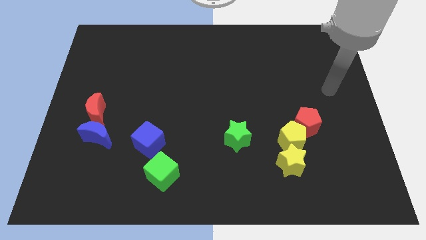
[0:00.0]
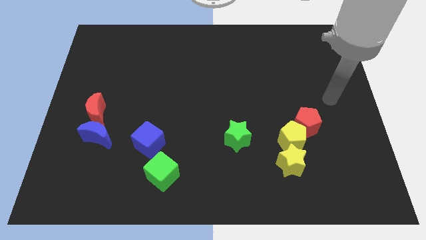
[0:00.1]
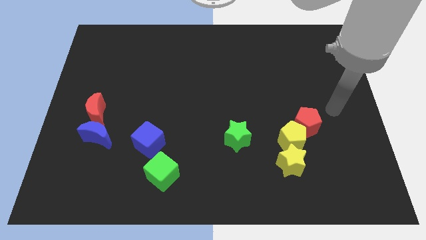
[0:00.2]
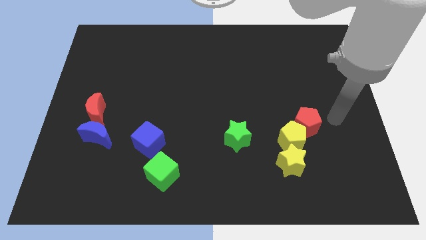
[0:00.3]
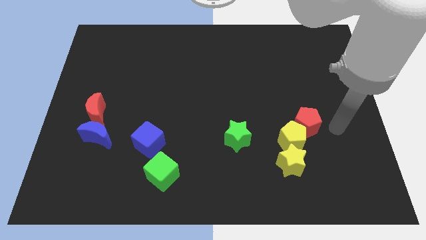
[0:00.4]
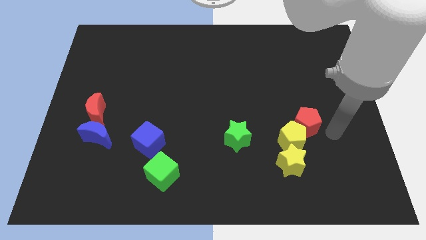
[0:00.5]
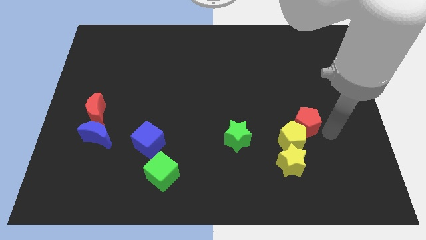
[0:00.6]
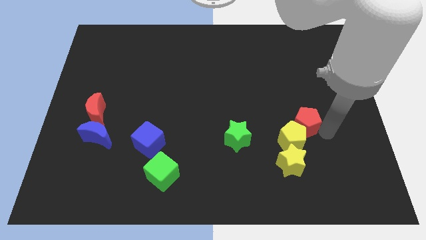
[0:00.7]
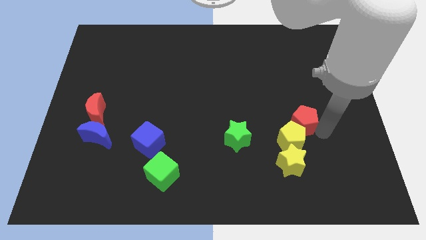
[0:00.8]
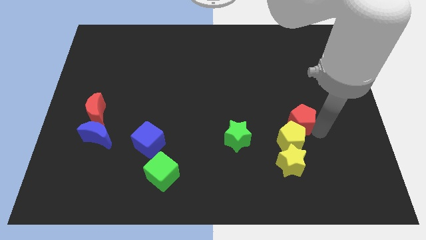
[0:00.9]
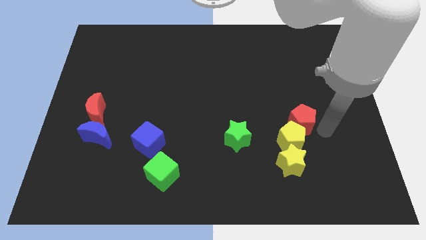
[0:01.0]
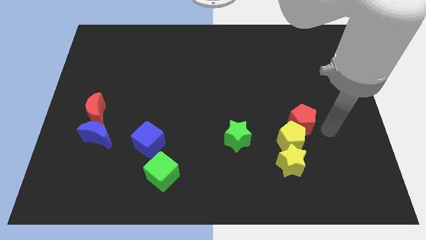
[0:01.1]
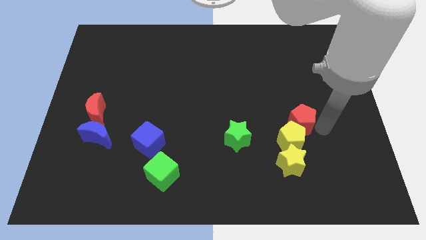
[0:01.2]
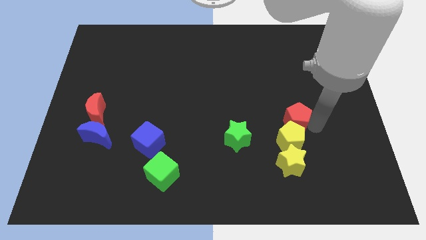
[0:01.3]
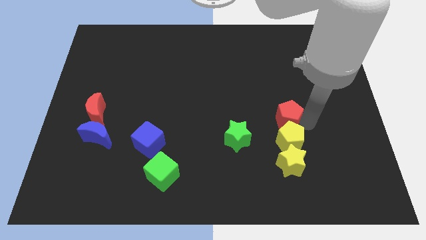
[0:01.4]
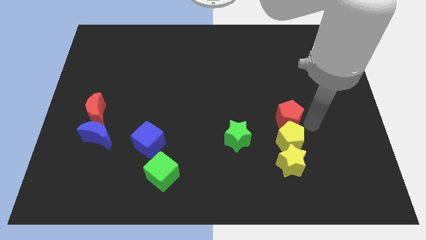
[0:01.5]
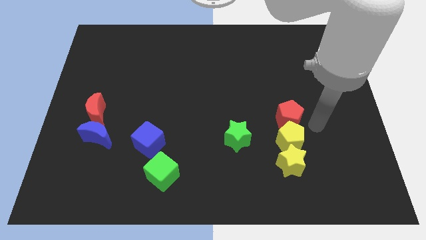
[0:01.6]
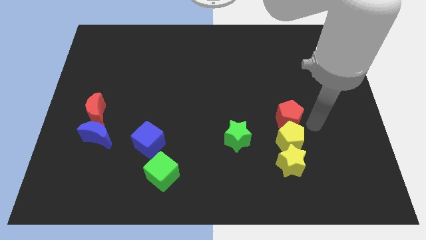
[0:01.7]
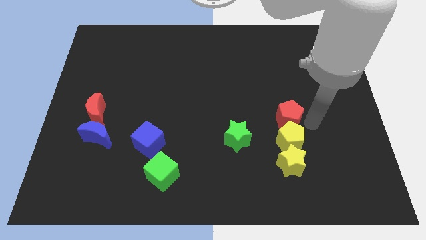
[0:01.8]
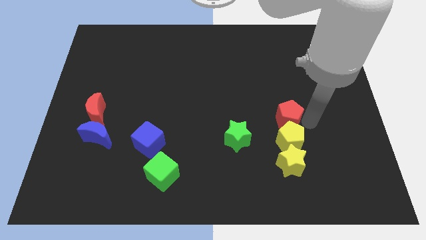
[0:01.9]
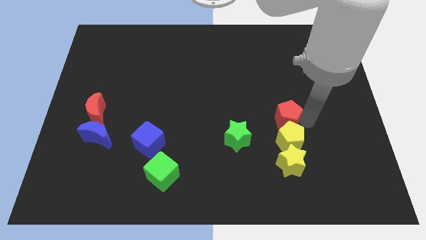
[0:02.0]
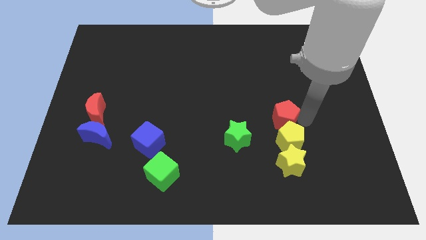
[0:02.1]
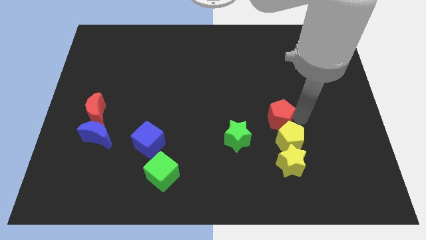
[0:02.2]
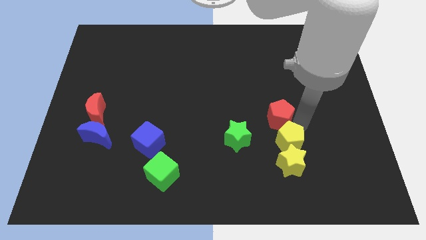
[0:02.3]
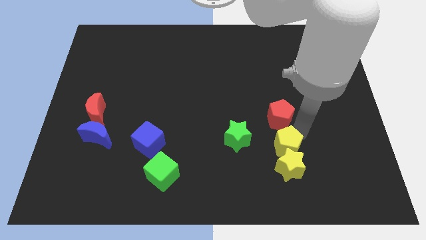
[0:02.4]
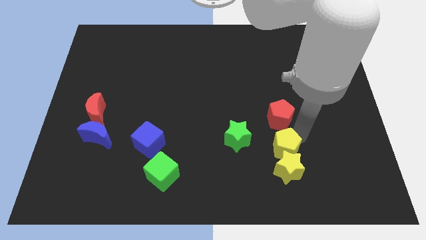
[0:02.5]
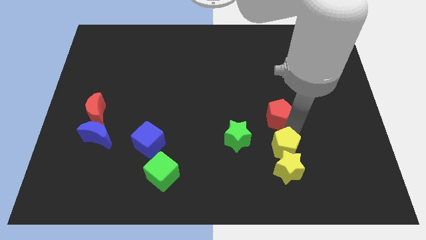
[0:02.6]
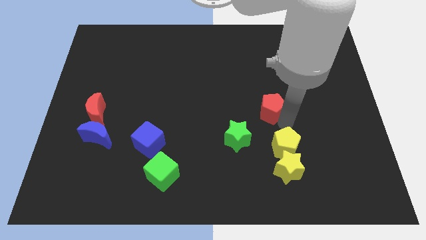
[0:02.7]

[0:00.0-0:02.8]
move the red pentagon somewhat up and left

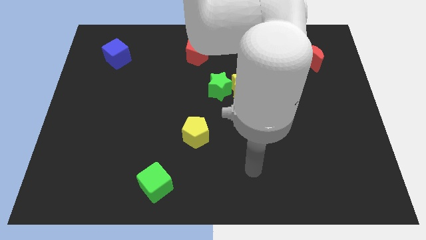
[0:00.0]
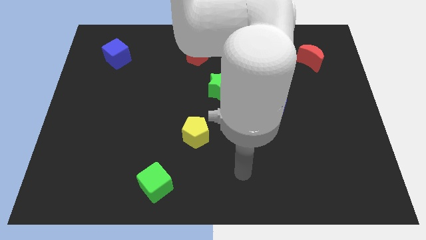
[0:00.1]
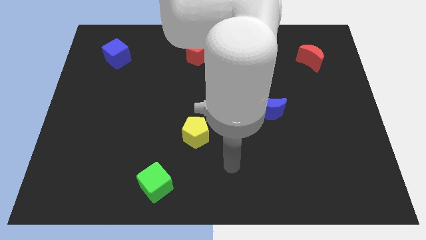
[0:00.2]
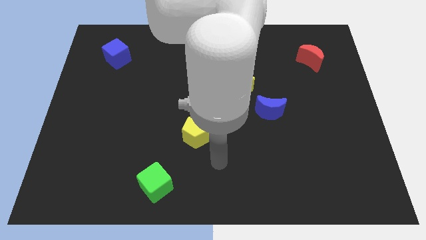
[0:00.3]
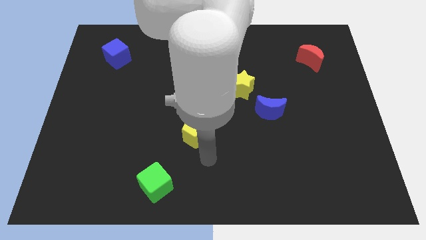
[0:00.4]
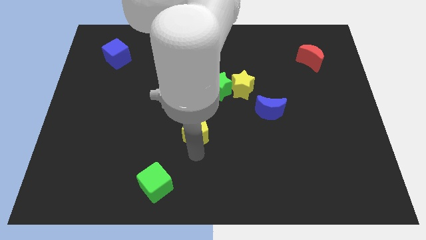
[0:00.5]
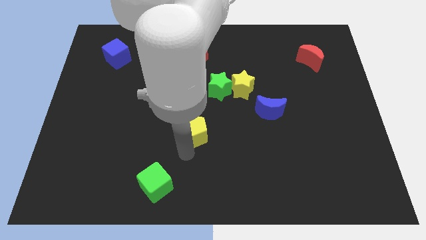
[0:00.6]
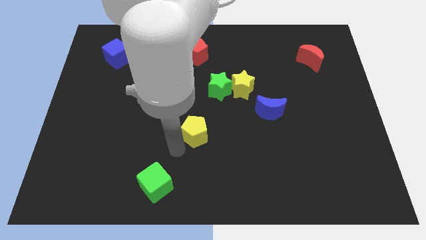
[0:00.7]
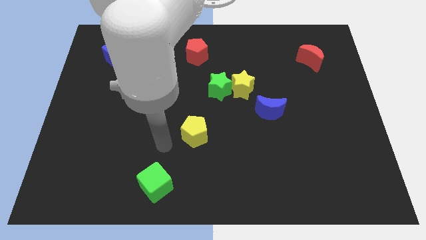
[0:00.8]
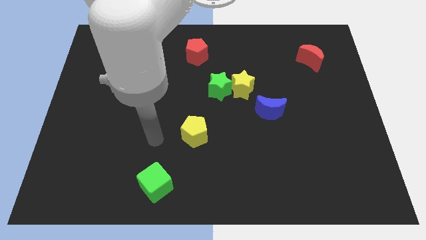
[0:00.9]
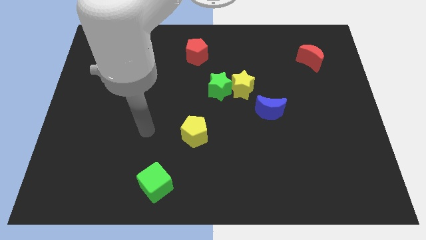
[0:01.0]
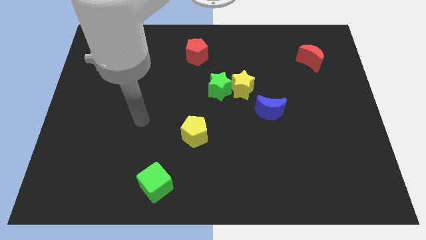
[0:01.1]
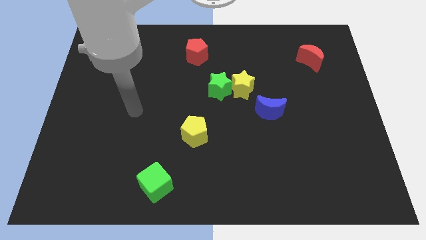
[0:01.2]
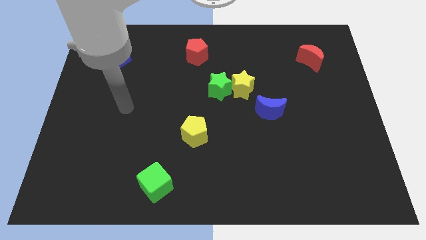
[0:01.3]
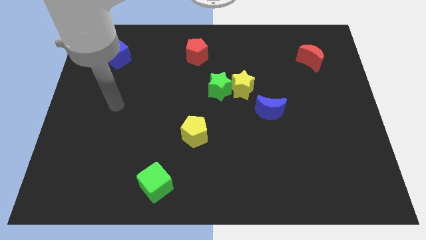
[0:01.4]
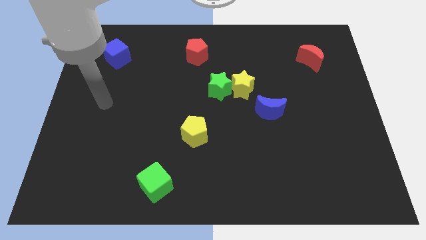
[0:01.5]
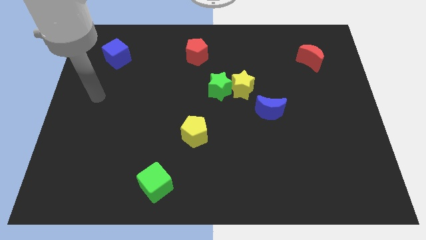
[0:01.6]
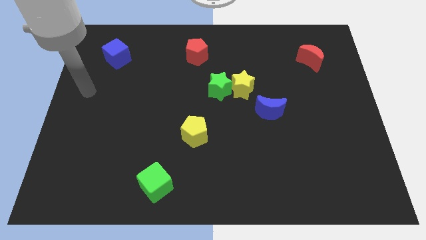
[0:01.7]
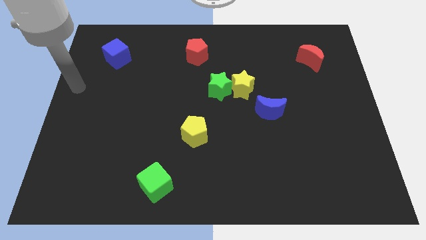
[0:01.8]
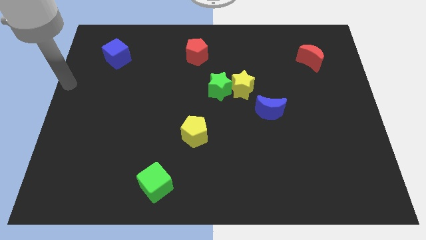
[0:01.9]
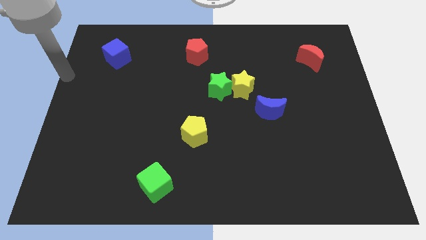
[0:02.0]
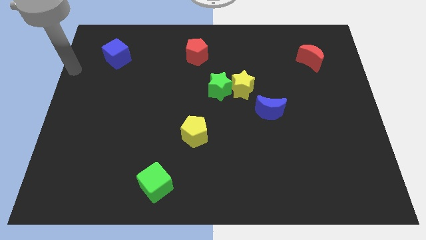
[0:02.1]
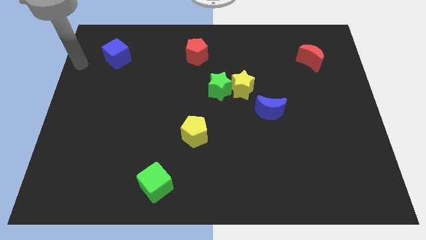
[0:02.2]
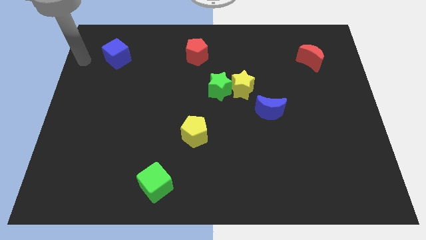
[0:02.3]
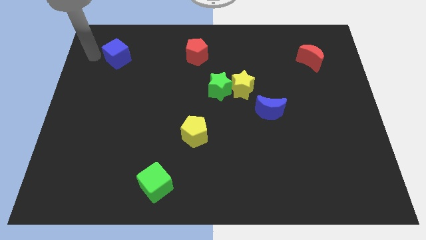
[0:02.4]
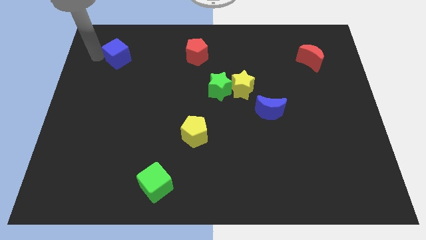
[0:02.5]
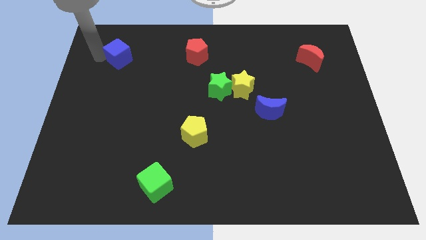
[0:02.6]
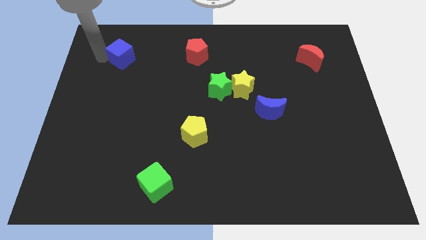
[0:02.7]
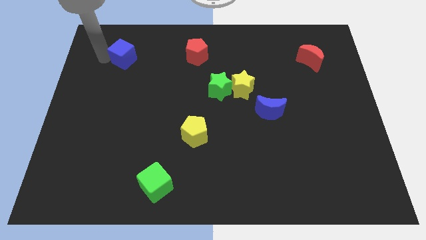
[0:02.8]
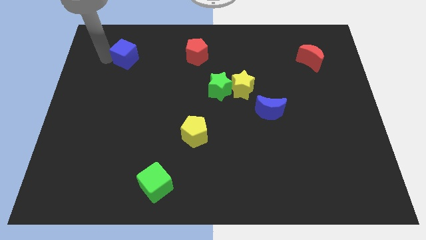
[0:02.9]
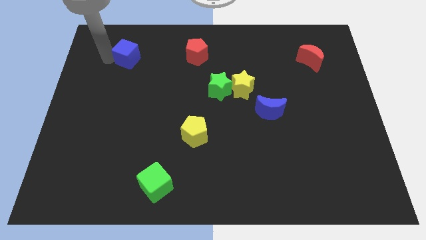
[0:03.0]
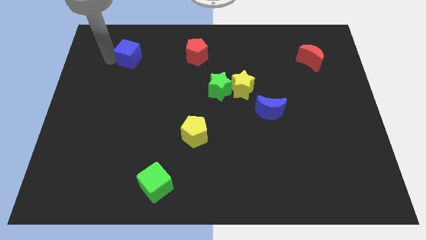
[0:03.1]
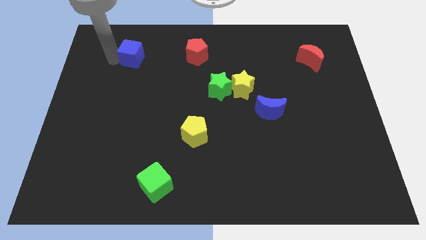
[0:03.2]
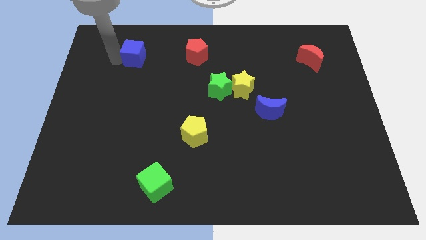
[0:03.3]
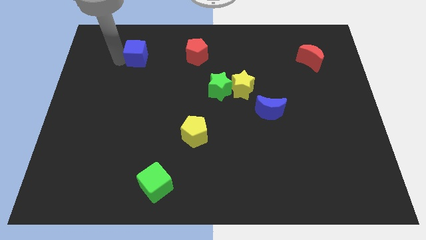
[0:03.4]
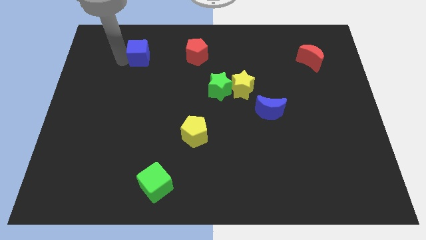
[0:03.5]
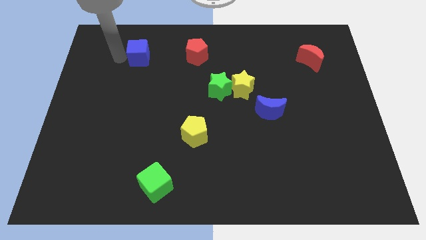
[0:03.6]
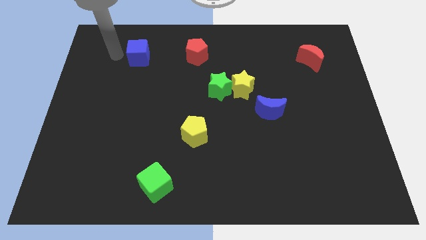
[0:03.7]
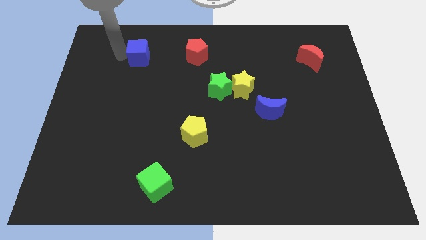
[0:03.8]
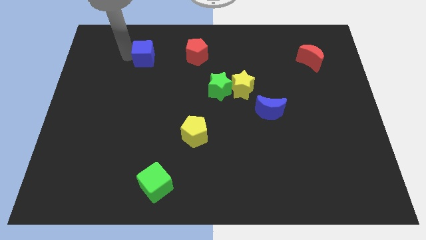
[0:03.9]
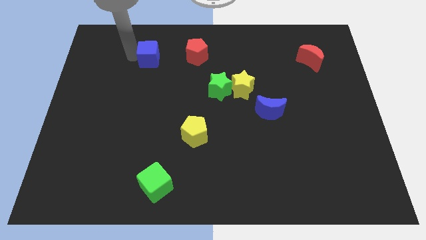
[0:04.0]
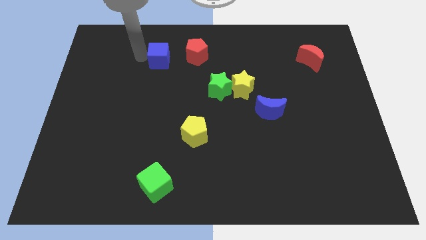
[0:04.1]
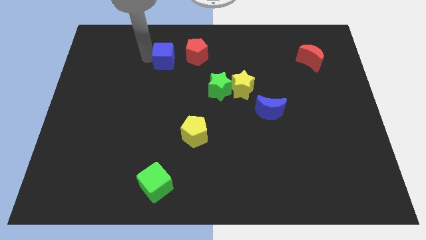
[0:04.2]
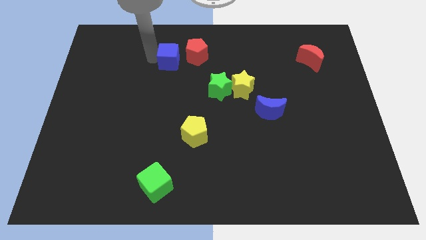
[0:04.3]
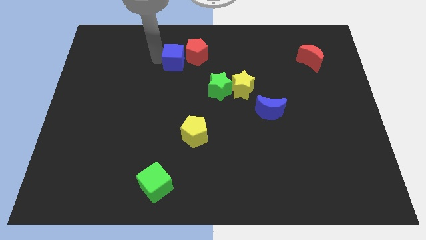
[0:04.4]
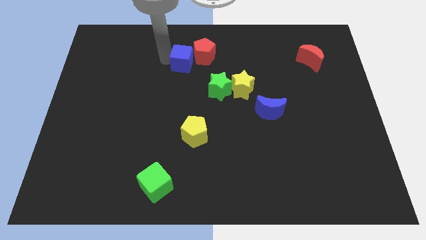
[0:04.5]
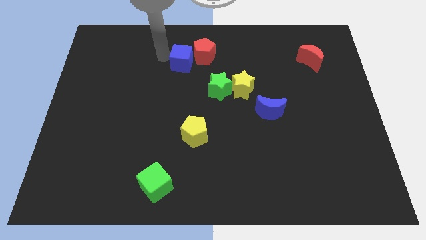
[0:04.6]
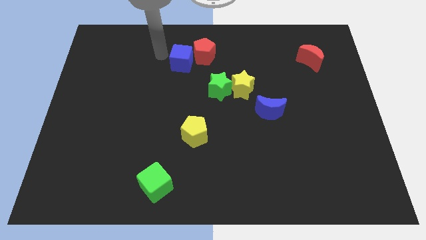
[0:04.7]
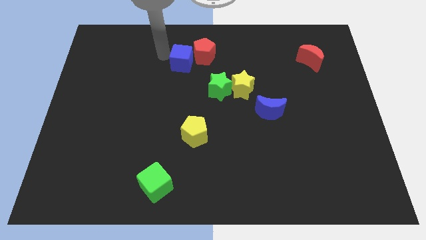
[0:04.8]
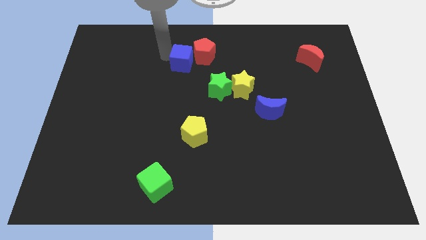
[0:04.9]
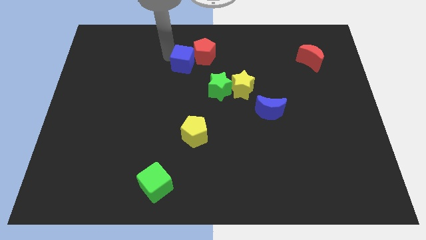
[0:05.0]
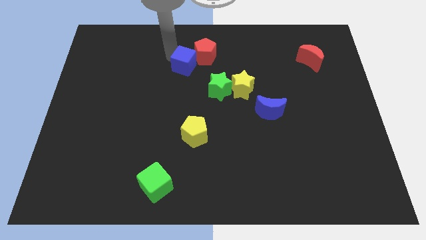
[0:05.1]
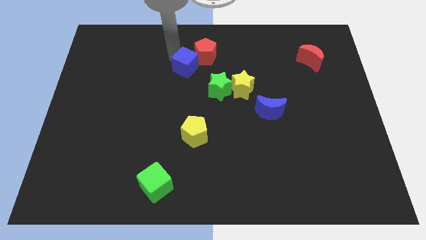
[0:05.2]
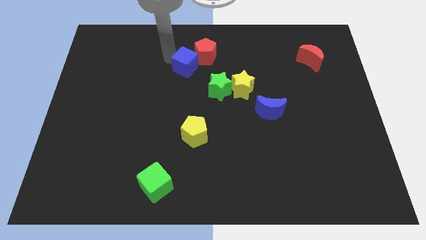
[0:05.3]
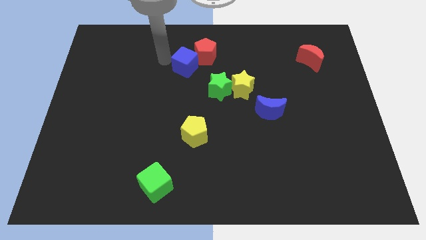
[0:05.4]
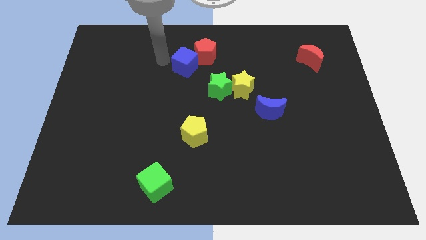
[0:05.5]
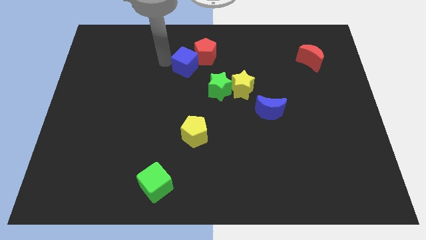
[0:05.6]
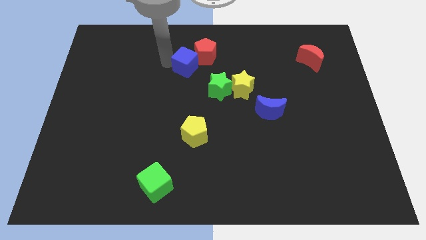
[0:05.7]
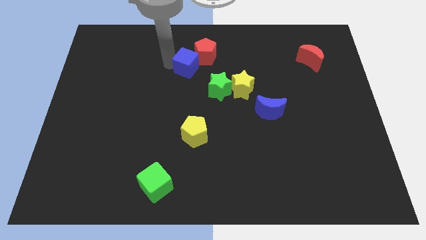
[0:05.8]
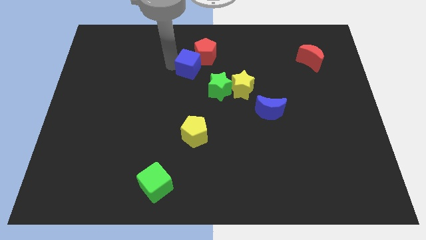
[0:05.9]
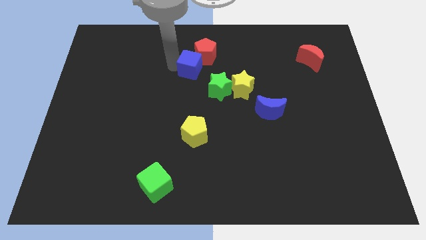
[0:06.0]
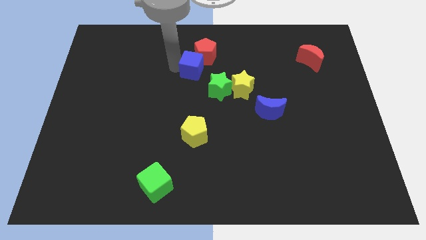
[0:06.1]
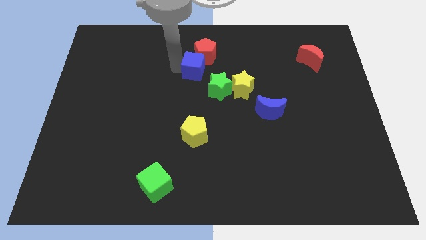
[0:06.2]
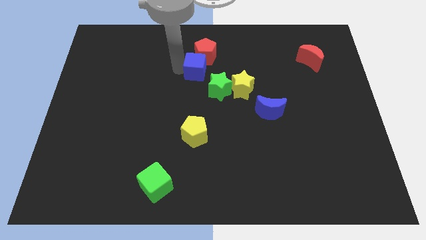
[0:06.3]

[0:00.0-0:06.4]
move the blue cube right
